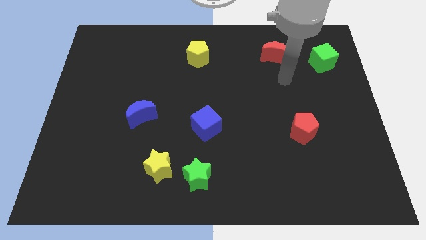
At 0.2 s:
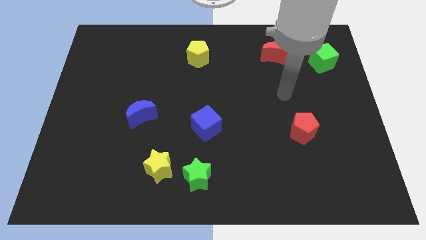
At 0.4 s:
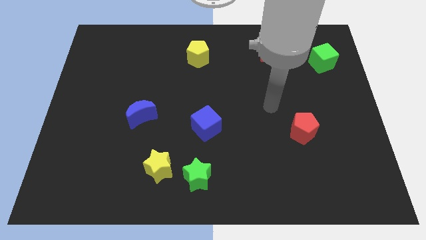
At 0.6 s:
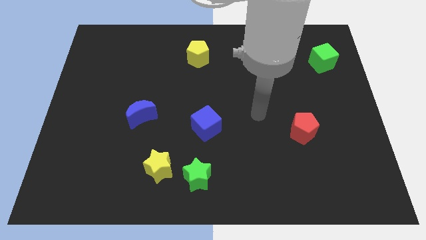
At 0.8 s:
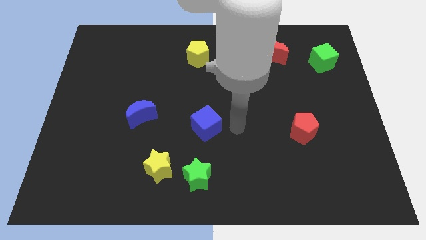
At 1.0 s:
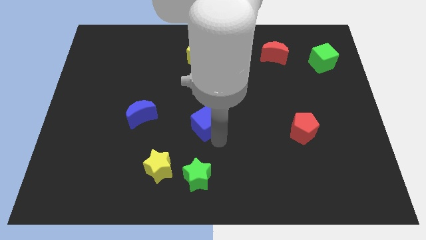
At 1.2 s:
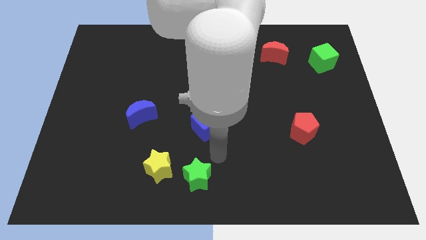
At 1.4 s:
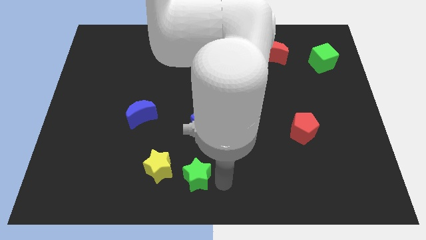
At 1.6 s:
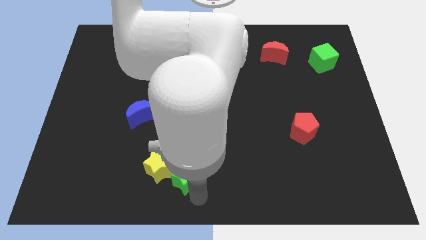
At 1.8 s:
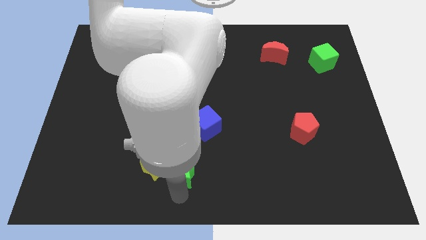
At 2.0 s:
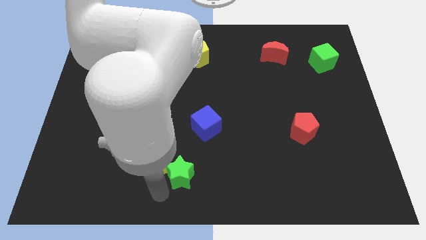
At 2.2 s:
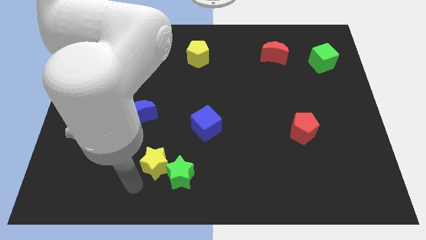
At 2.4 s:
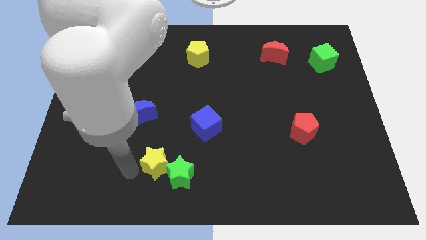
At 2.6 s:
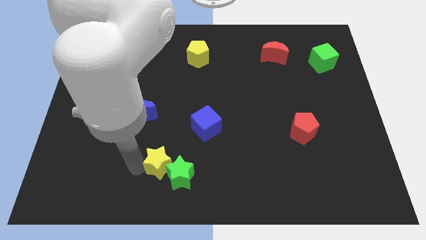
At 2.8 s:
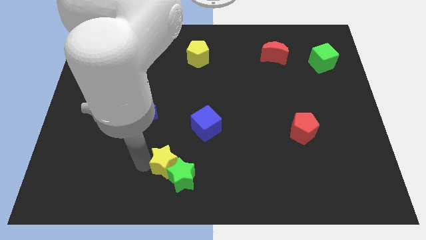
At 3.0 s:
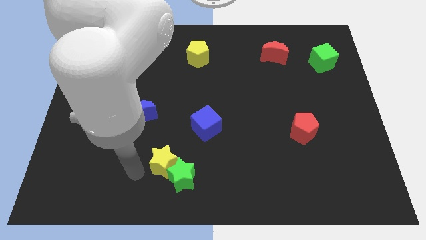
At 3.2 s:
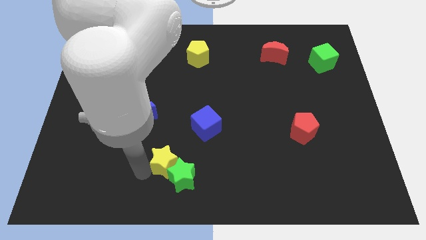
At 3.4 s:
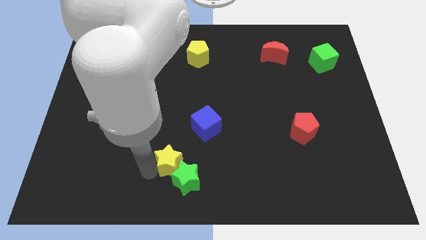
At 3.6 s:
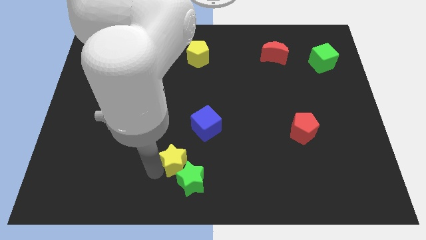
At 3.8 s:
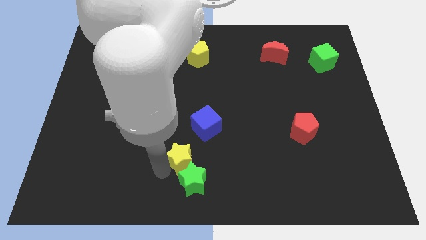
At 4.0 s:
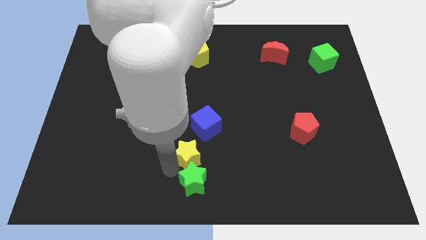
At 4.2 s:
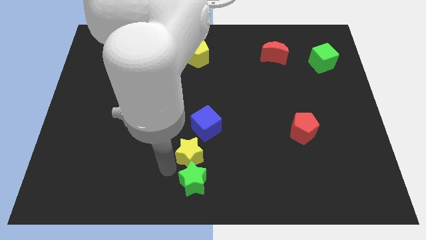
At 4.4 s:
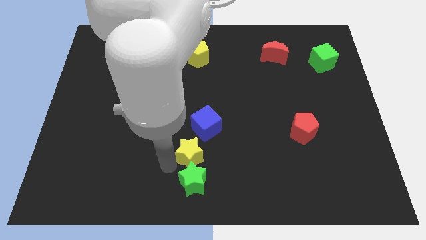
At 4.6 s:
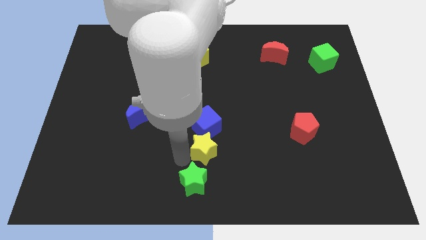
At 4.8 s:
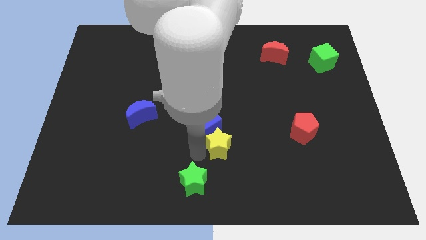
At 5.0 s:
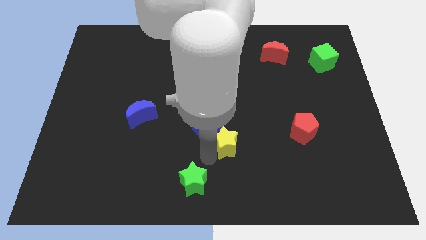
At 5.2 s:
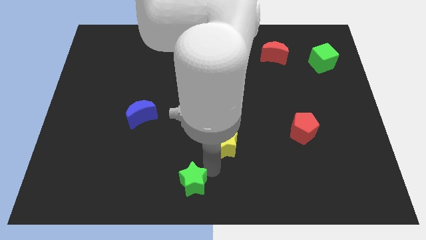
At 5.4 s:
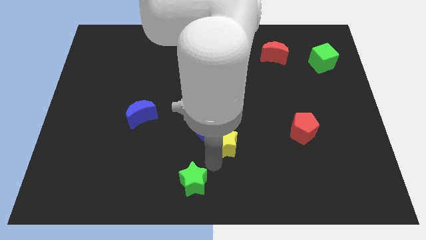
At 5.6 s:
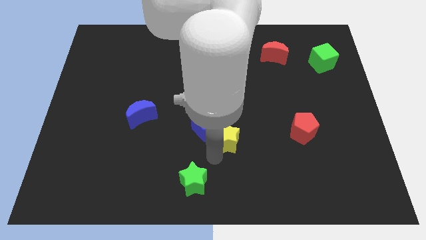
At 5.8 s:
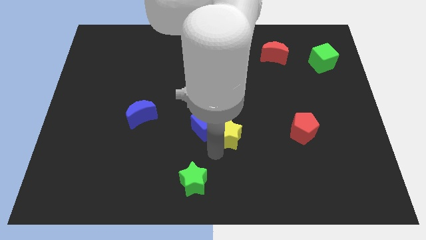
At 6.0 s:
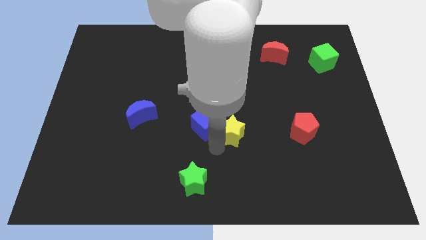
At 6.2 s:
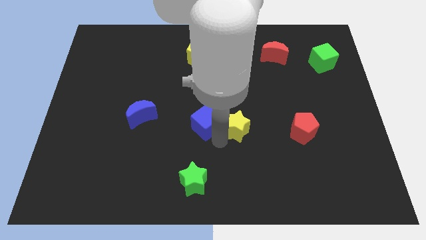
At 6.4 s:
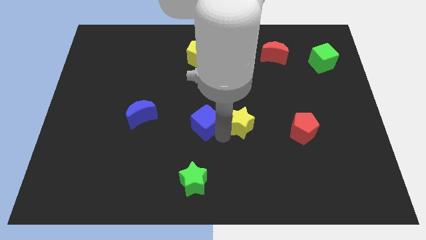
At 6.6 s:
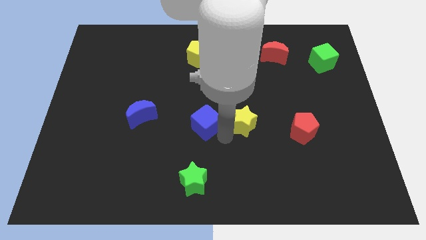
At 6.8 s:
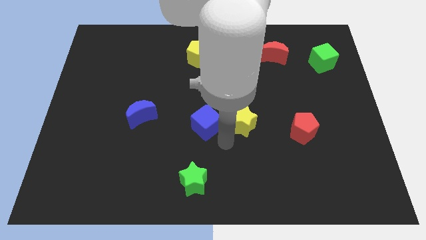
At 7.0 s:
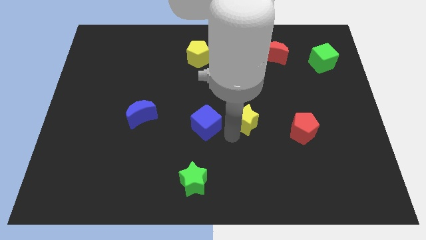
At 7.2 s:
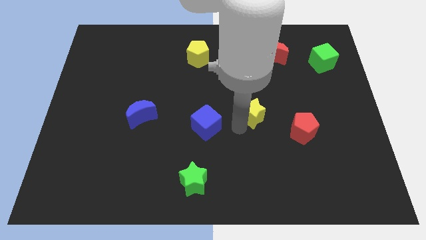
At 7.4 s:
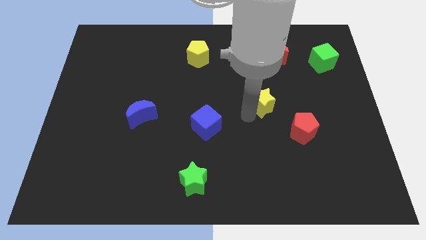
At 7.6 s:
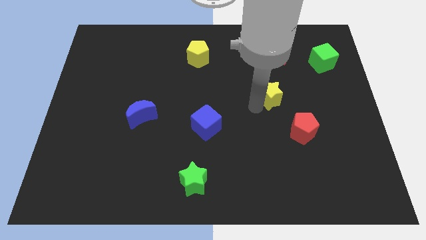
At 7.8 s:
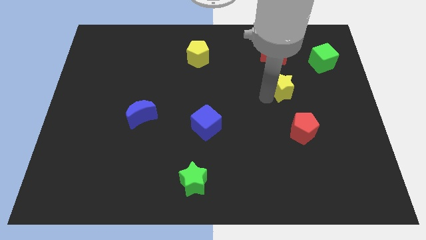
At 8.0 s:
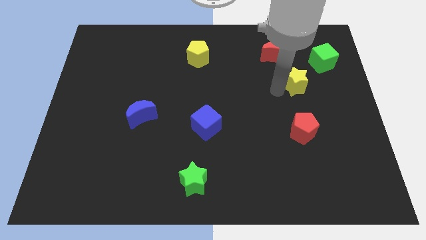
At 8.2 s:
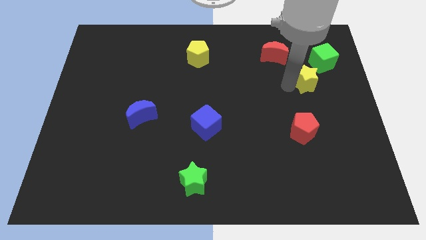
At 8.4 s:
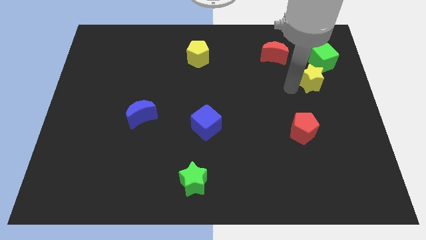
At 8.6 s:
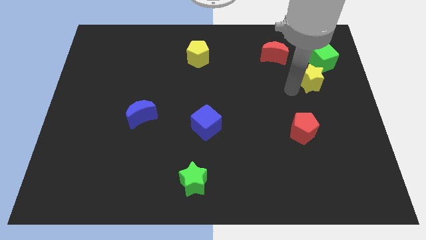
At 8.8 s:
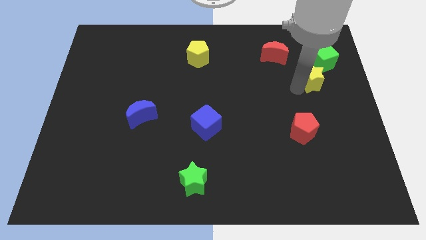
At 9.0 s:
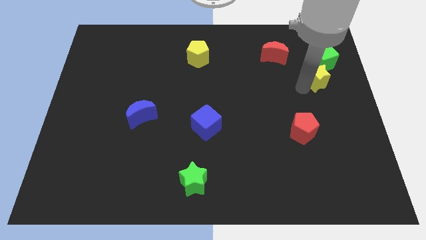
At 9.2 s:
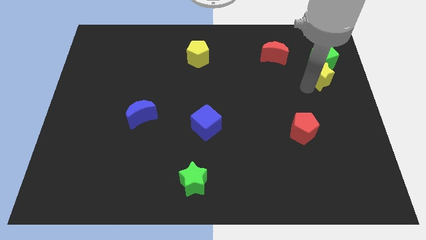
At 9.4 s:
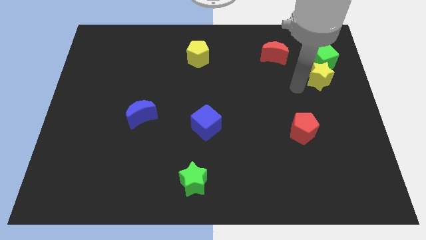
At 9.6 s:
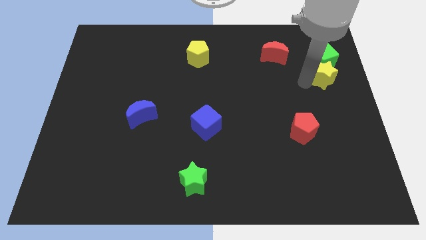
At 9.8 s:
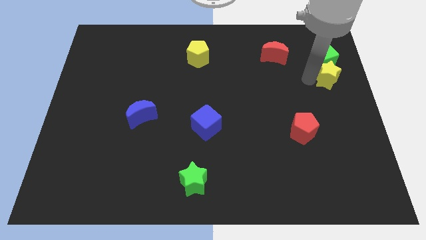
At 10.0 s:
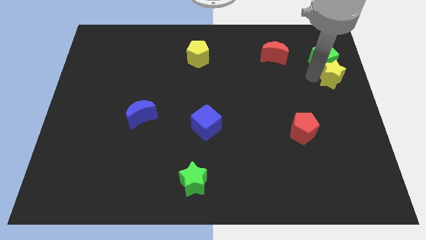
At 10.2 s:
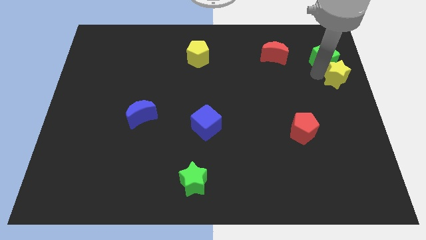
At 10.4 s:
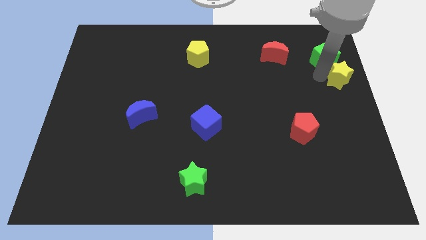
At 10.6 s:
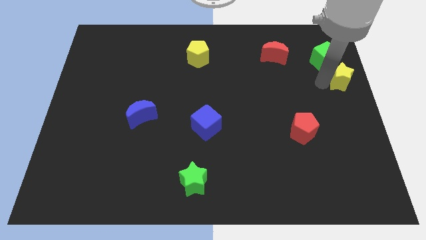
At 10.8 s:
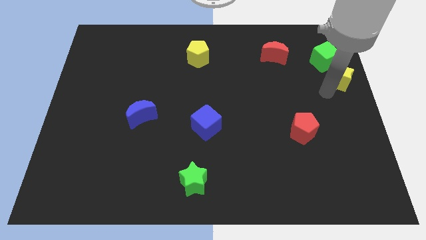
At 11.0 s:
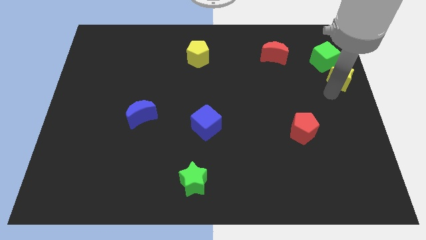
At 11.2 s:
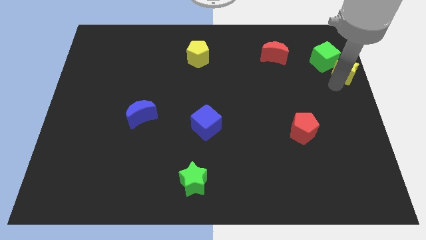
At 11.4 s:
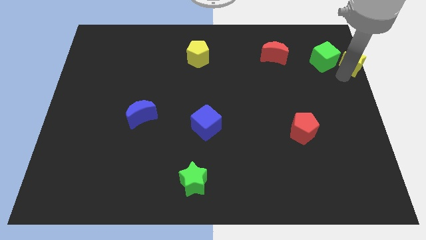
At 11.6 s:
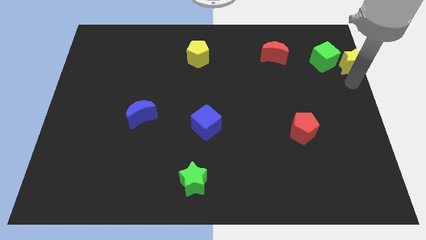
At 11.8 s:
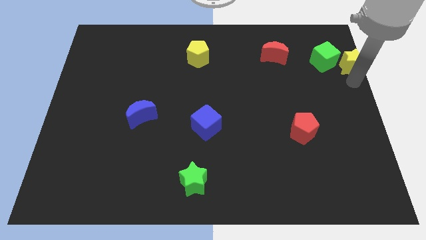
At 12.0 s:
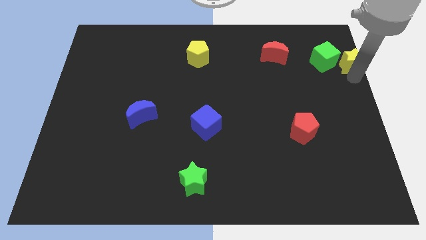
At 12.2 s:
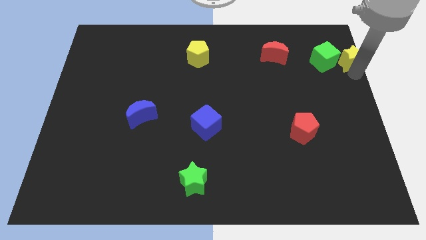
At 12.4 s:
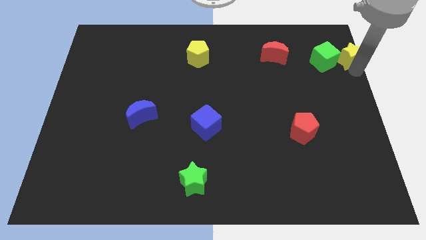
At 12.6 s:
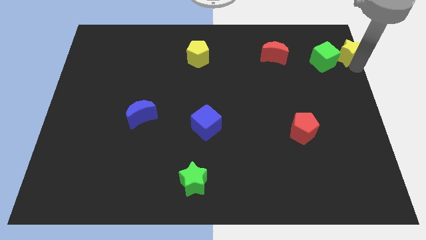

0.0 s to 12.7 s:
push the yellow star to the top right
